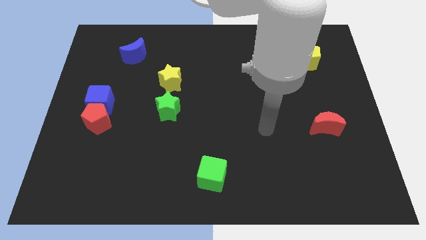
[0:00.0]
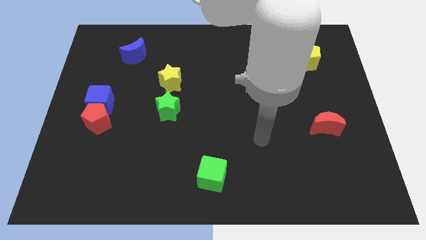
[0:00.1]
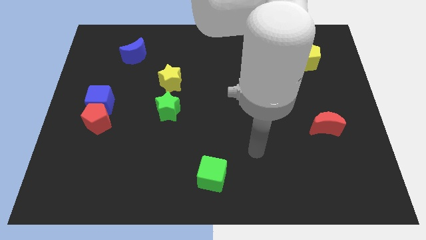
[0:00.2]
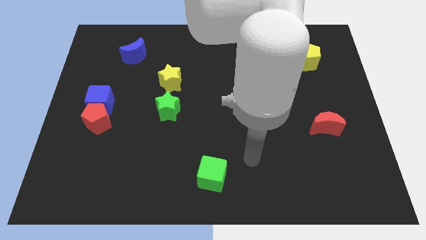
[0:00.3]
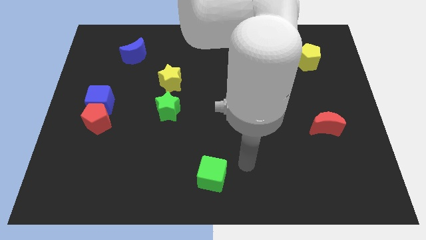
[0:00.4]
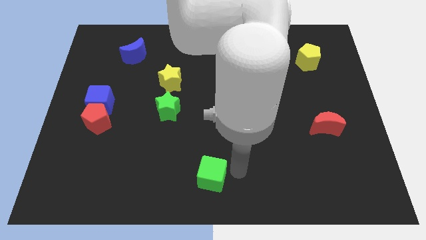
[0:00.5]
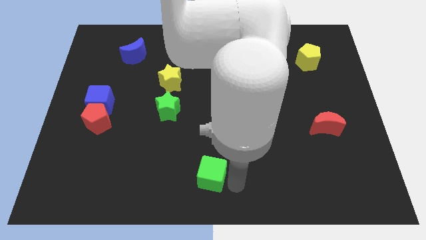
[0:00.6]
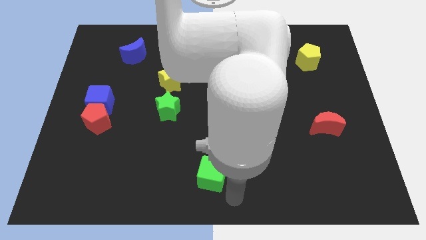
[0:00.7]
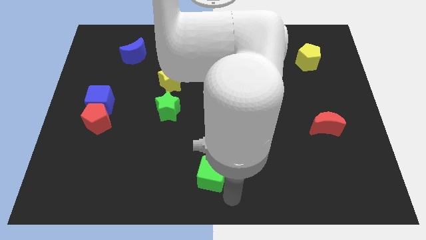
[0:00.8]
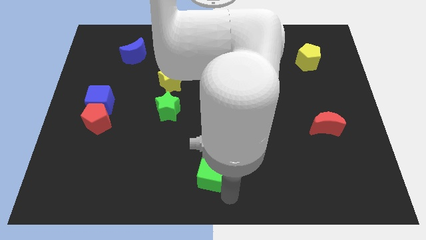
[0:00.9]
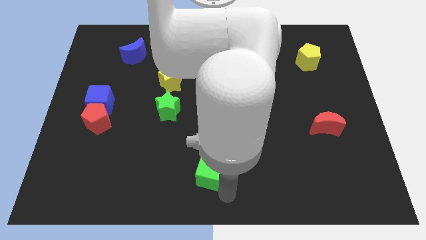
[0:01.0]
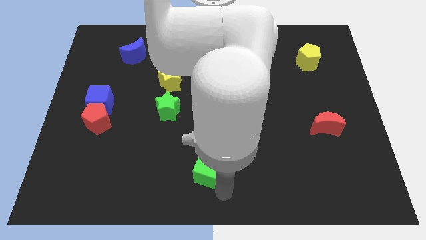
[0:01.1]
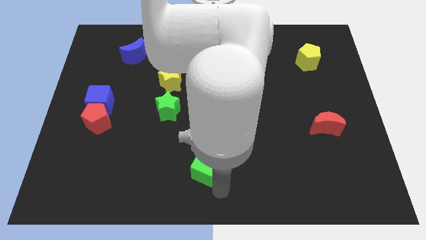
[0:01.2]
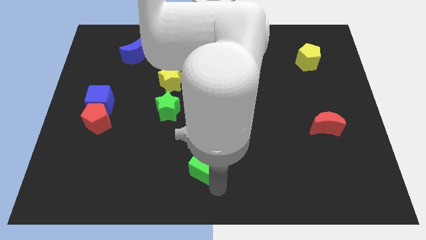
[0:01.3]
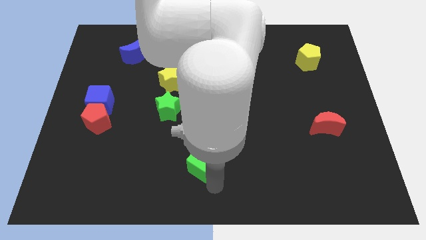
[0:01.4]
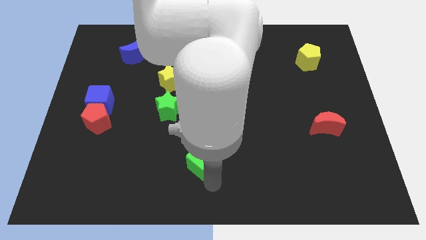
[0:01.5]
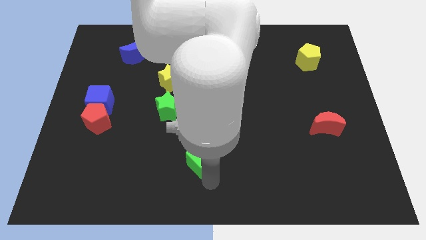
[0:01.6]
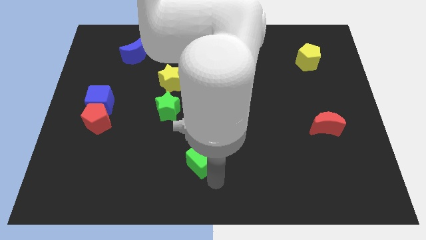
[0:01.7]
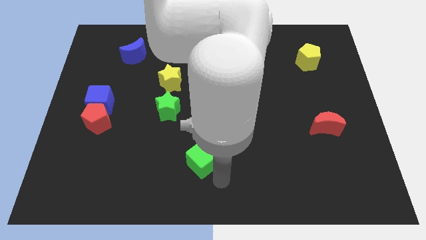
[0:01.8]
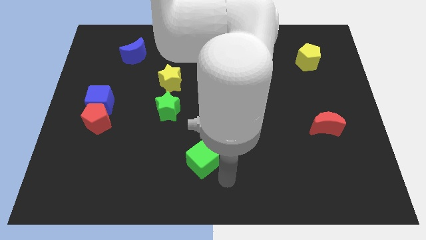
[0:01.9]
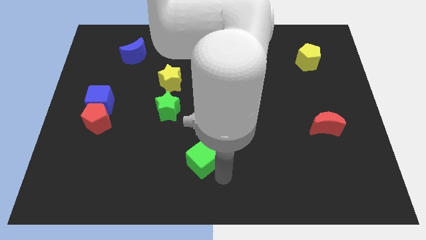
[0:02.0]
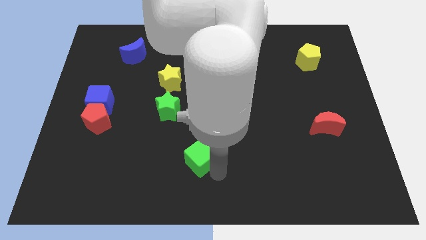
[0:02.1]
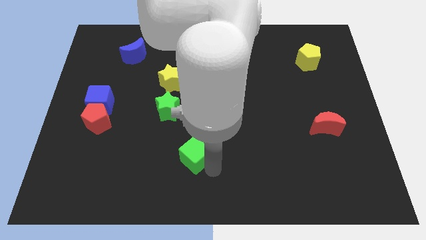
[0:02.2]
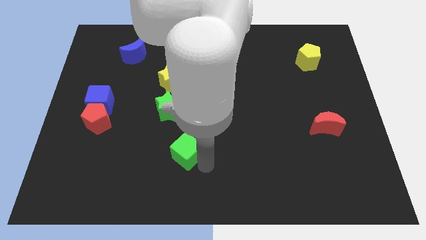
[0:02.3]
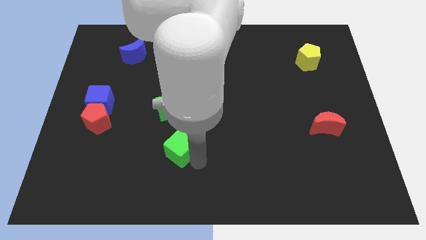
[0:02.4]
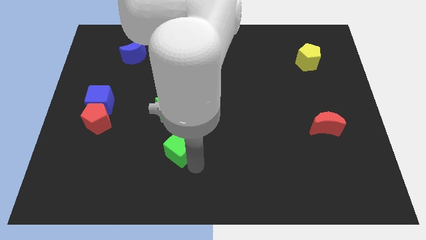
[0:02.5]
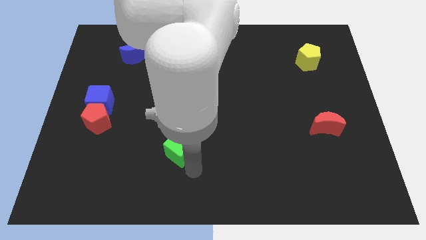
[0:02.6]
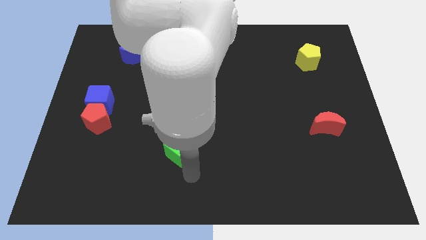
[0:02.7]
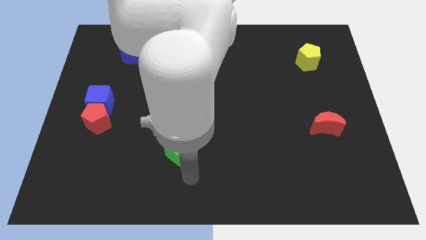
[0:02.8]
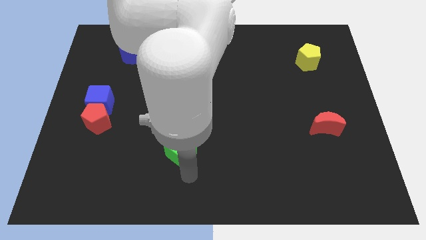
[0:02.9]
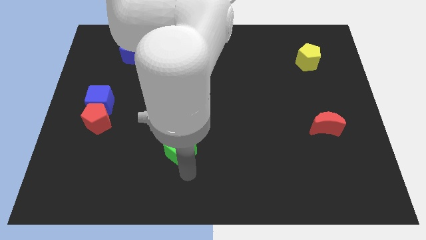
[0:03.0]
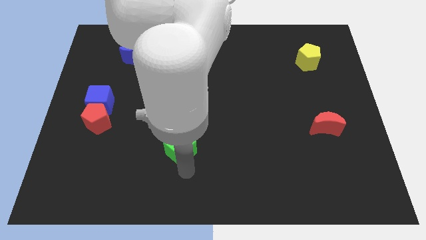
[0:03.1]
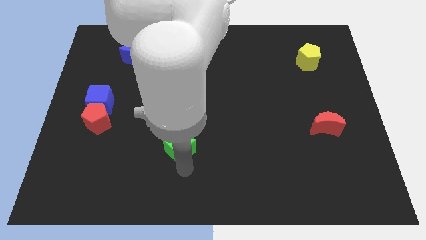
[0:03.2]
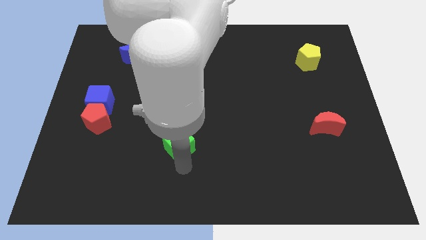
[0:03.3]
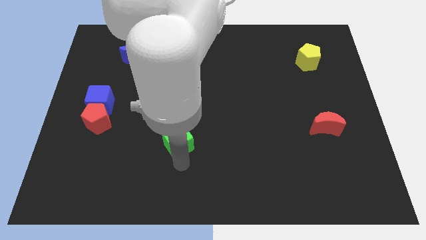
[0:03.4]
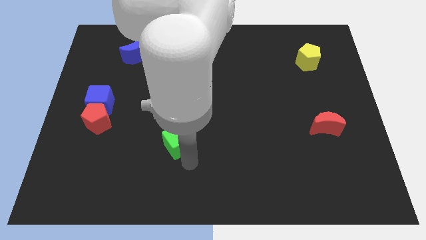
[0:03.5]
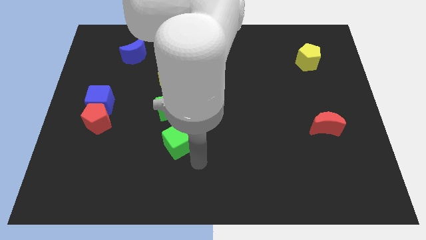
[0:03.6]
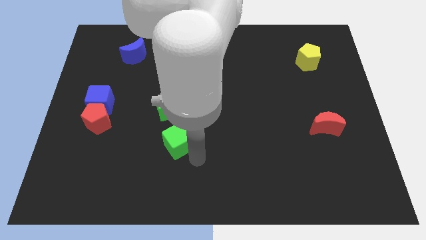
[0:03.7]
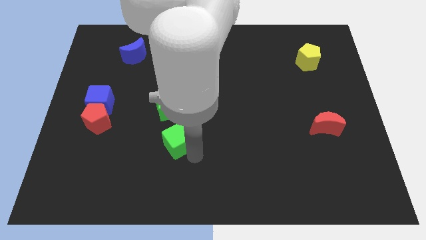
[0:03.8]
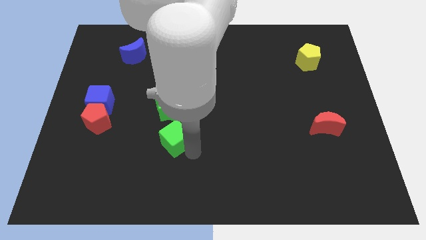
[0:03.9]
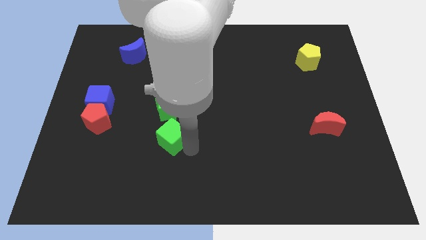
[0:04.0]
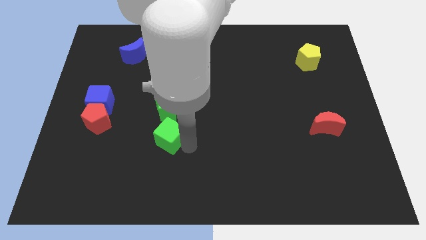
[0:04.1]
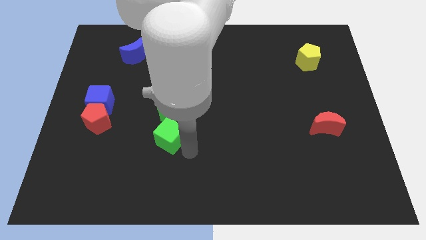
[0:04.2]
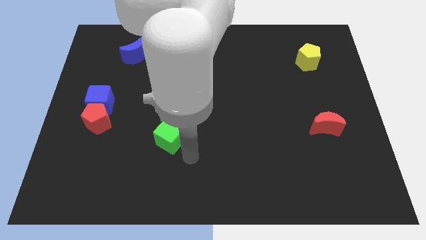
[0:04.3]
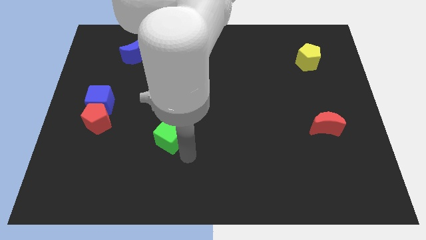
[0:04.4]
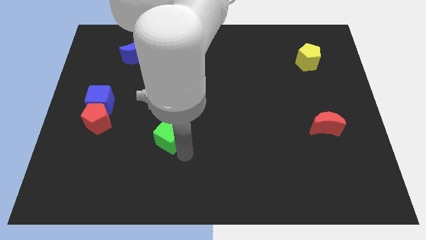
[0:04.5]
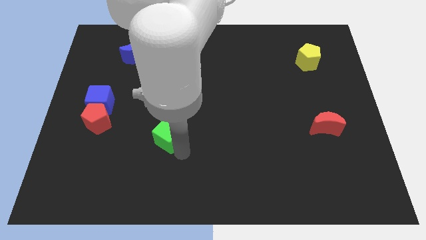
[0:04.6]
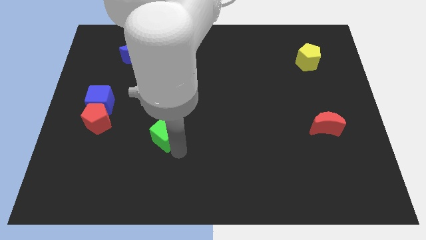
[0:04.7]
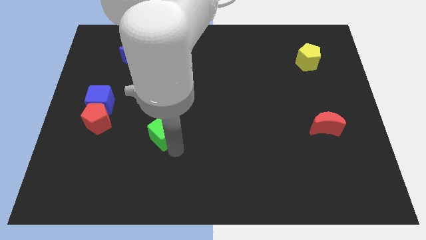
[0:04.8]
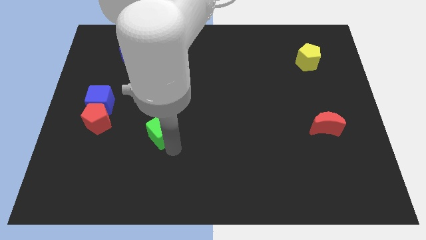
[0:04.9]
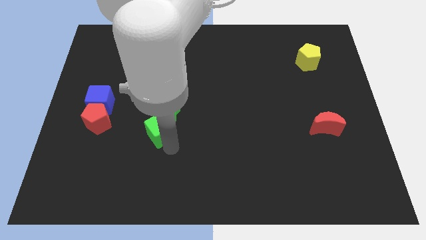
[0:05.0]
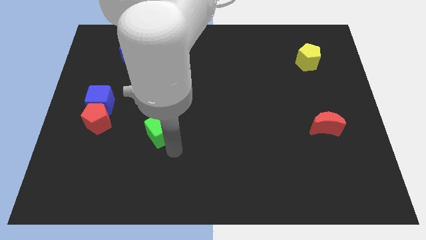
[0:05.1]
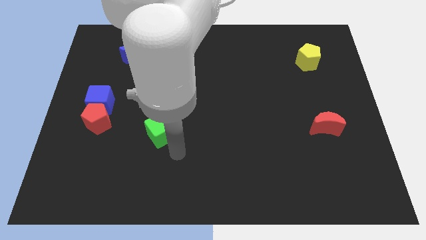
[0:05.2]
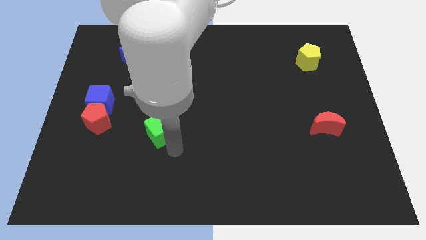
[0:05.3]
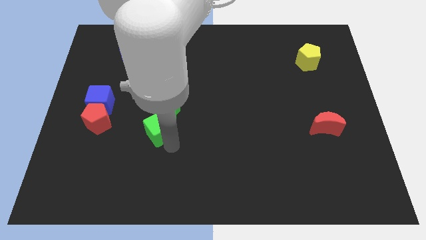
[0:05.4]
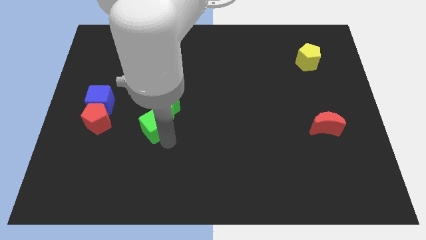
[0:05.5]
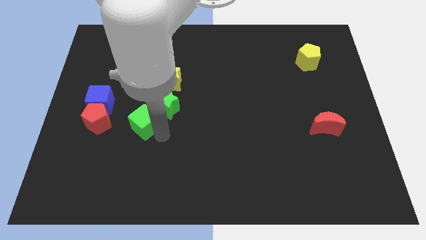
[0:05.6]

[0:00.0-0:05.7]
move the green cube up and to the left

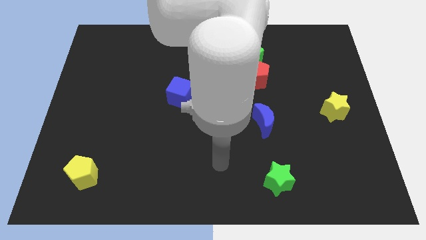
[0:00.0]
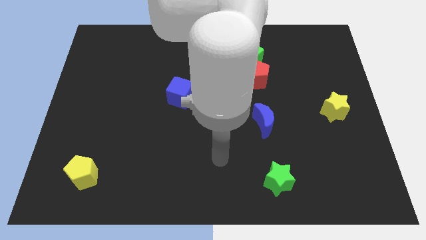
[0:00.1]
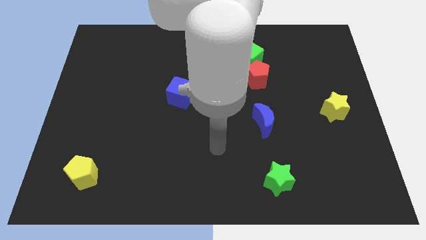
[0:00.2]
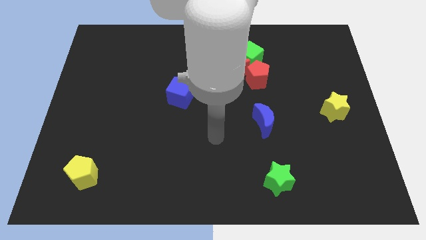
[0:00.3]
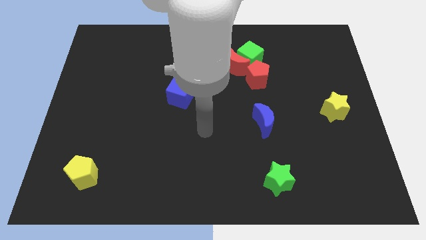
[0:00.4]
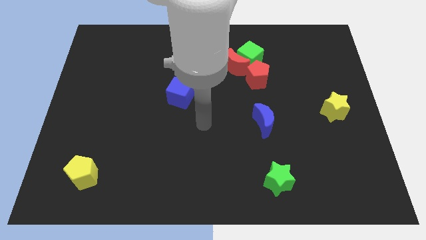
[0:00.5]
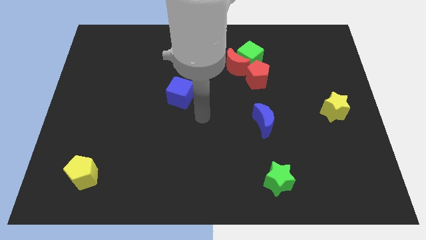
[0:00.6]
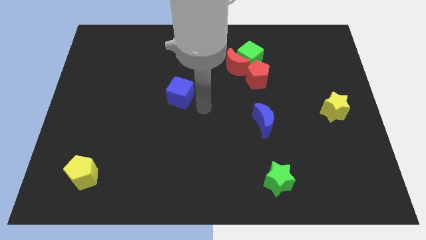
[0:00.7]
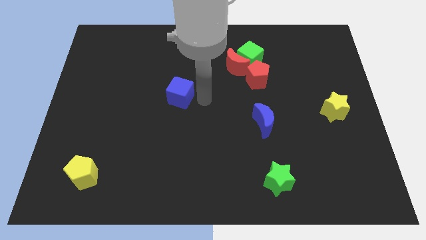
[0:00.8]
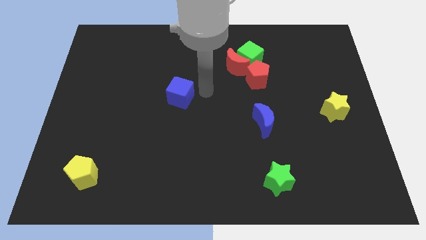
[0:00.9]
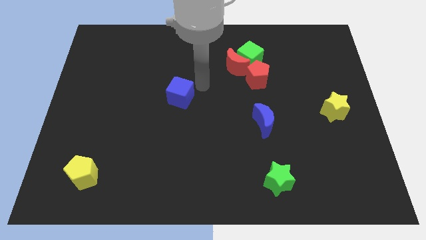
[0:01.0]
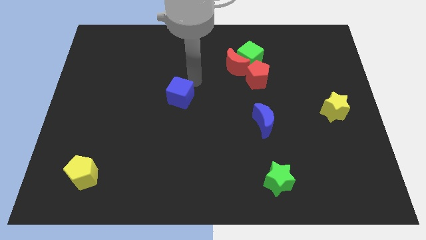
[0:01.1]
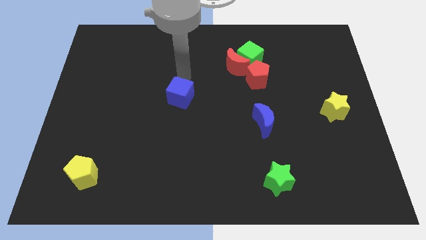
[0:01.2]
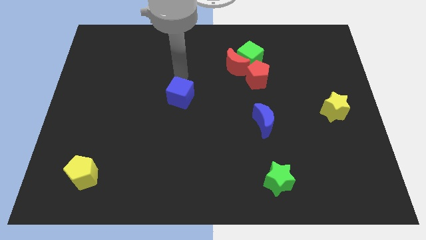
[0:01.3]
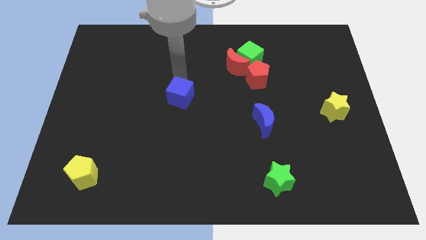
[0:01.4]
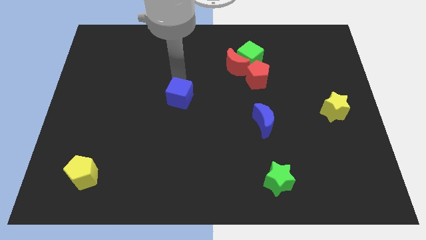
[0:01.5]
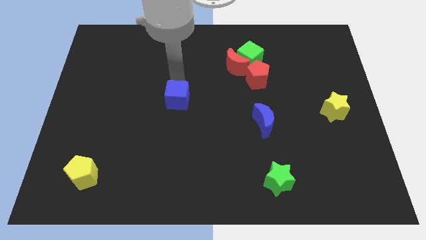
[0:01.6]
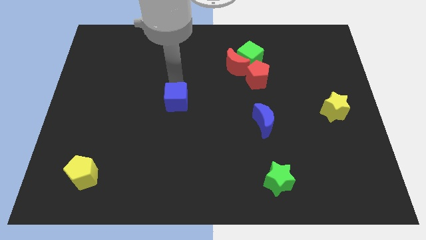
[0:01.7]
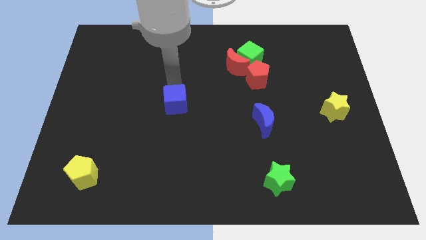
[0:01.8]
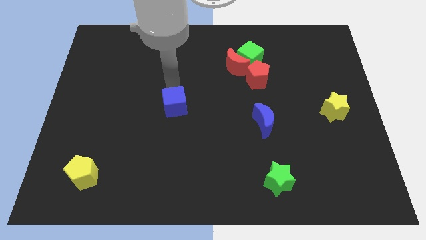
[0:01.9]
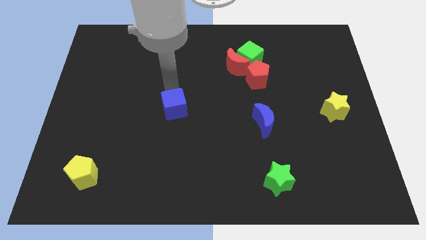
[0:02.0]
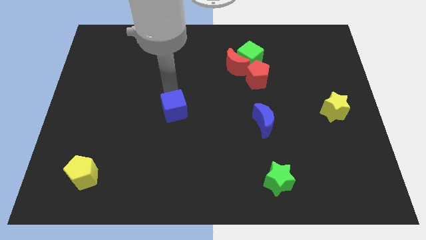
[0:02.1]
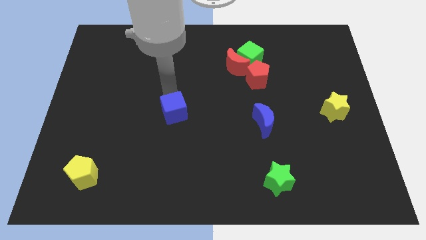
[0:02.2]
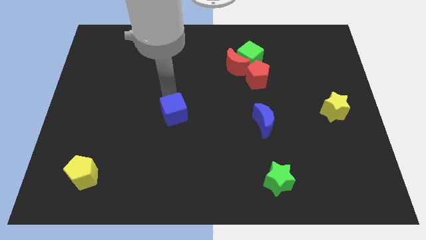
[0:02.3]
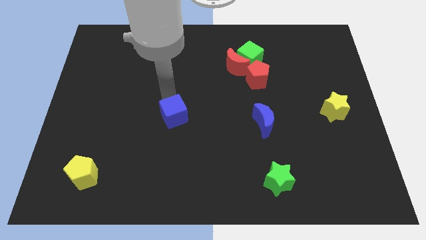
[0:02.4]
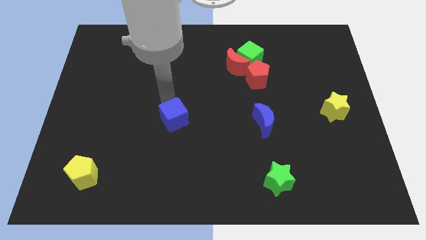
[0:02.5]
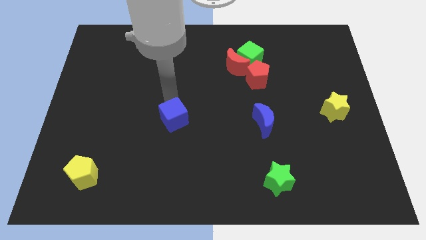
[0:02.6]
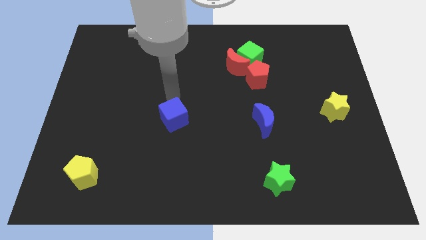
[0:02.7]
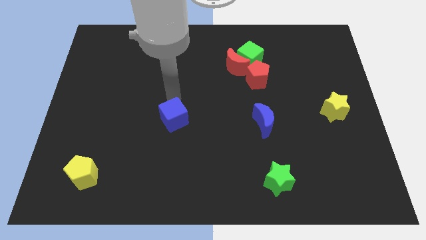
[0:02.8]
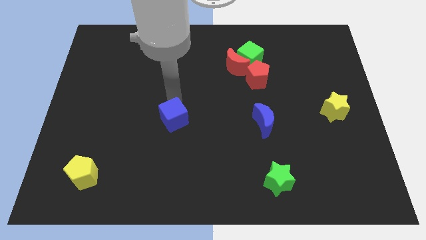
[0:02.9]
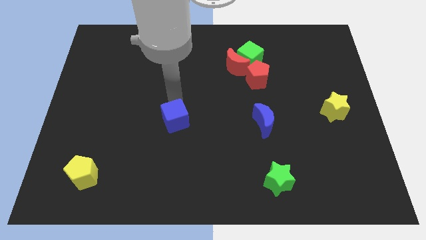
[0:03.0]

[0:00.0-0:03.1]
move the blue cube down a little
